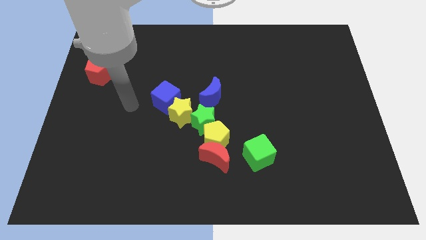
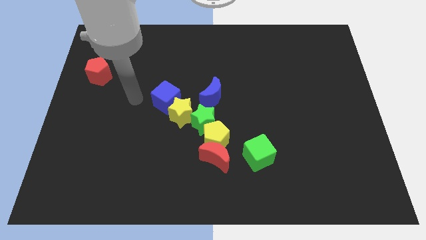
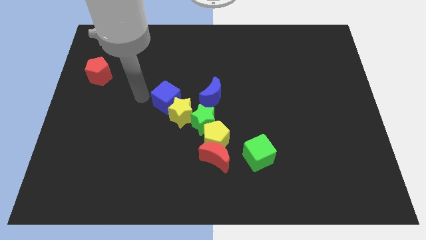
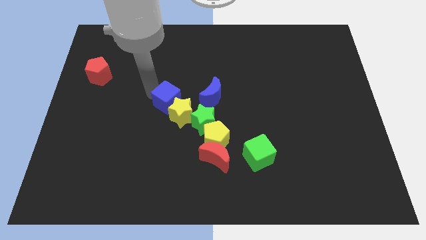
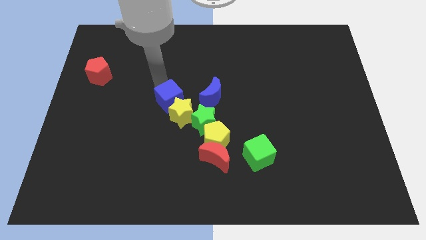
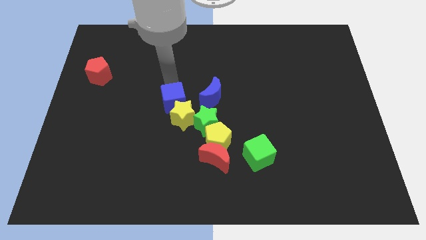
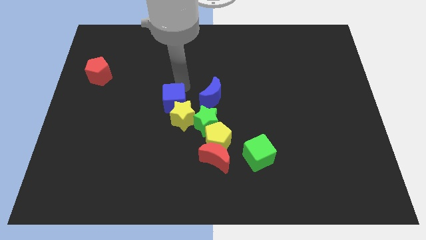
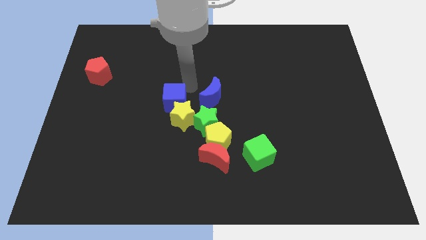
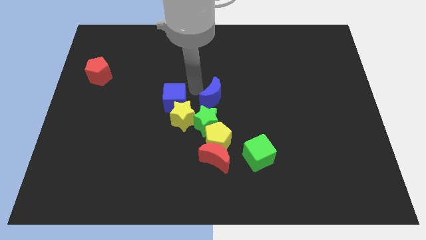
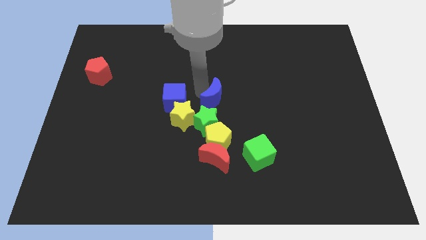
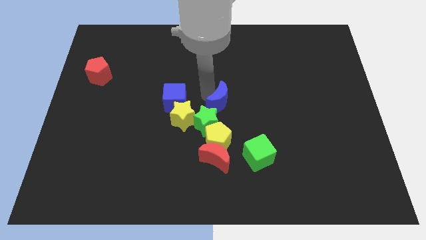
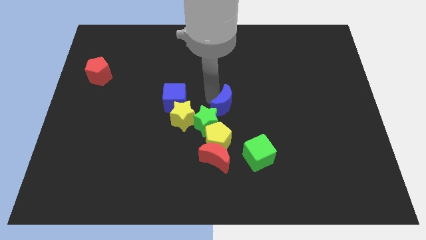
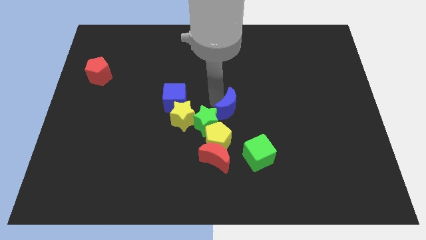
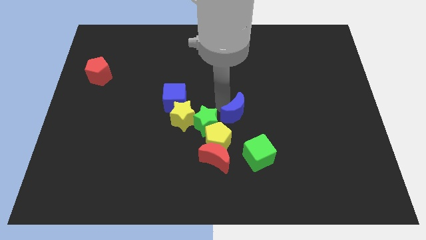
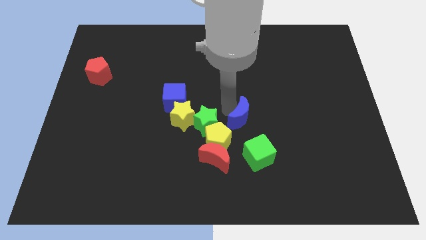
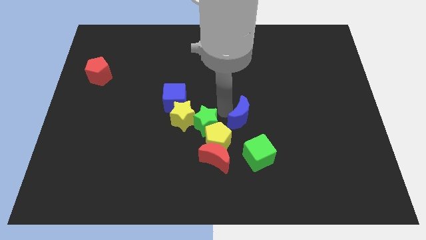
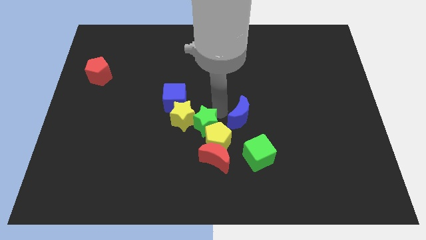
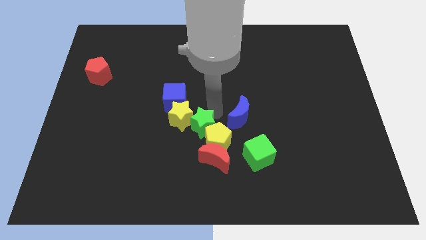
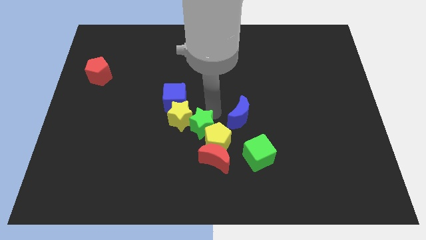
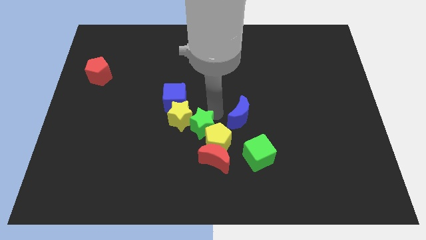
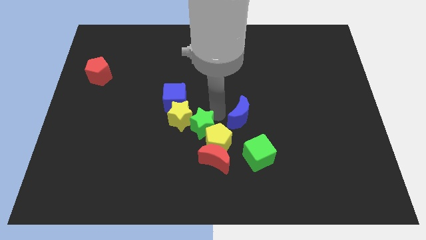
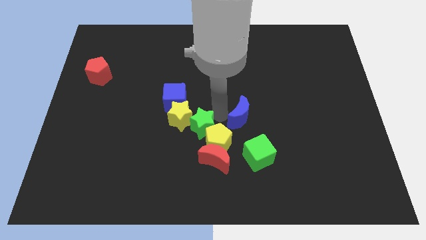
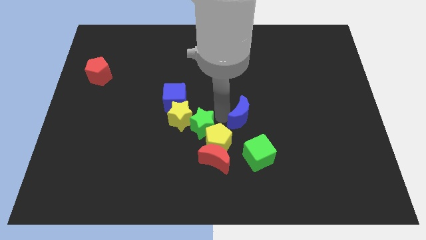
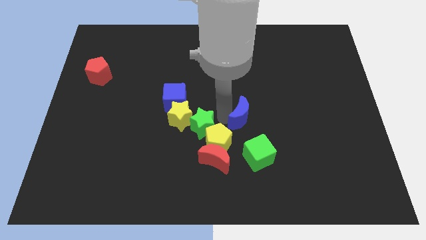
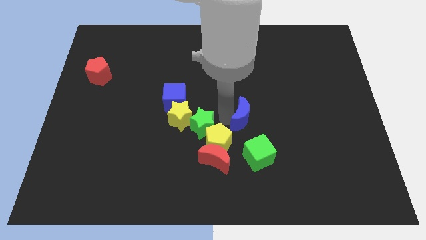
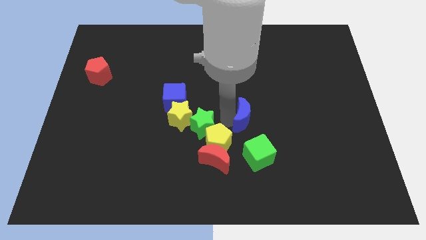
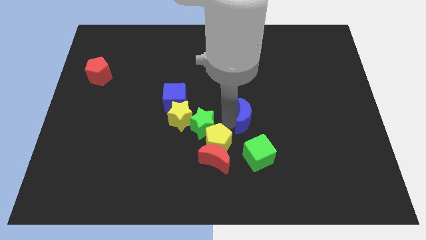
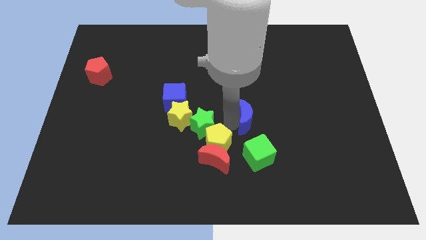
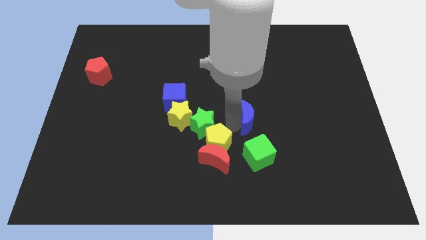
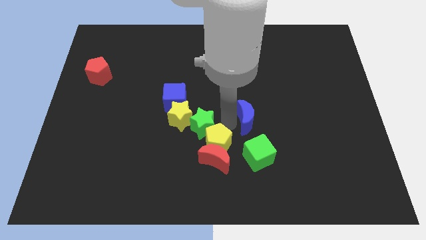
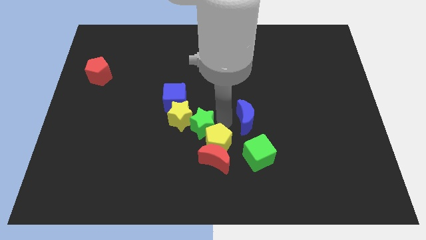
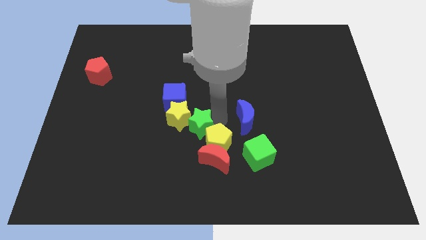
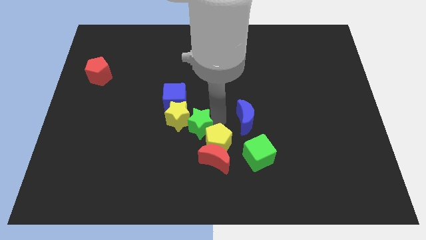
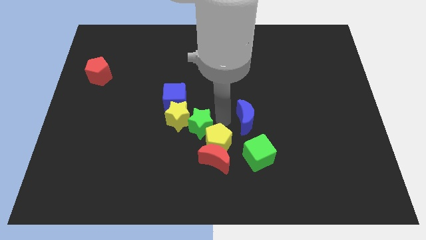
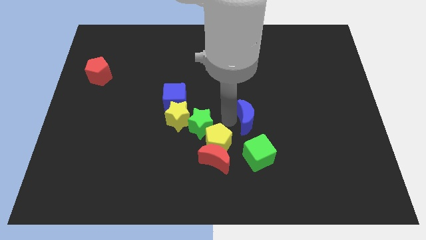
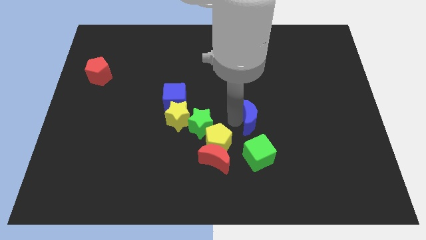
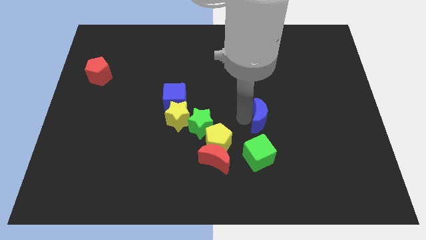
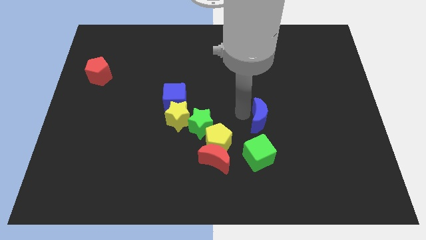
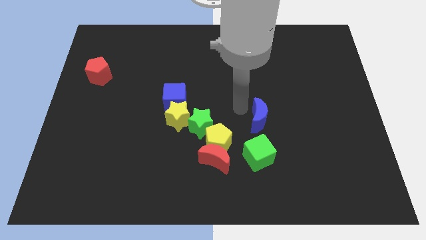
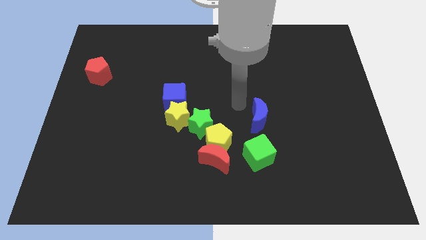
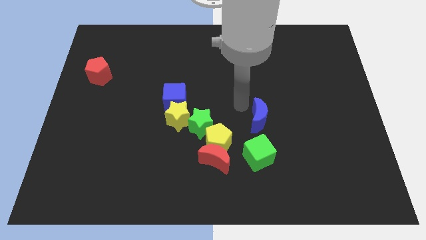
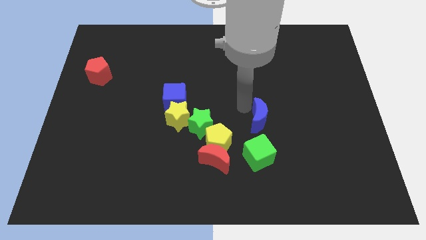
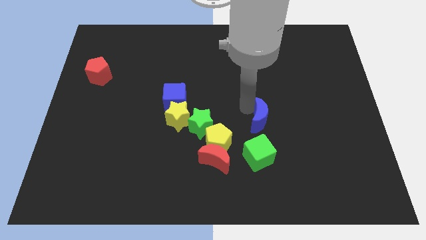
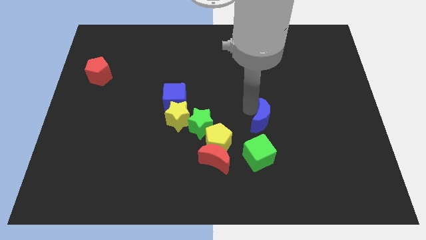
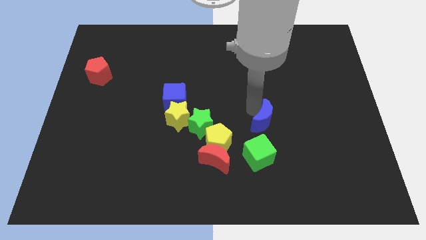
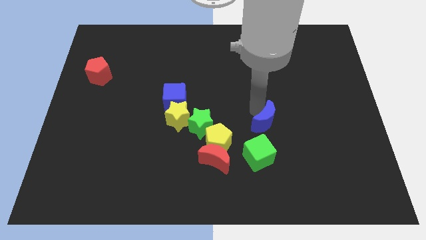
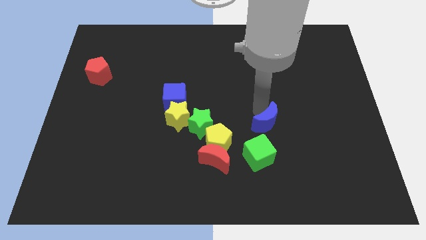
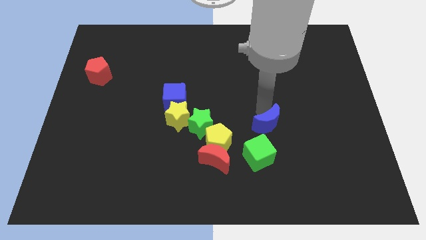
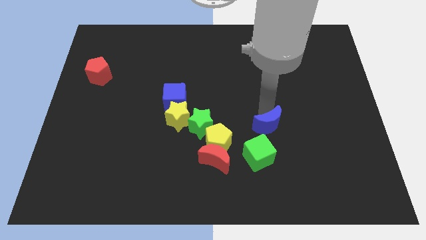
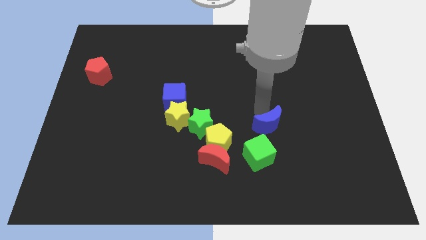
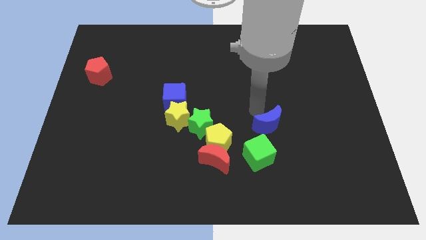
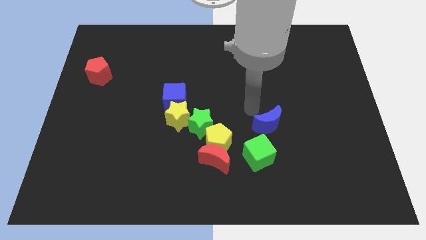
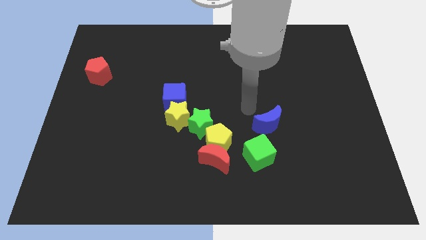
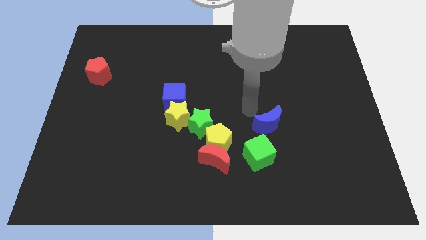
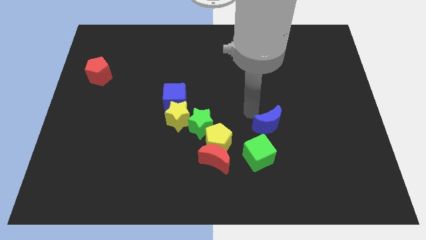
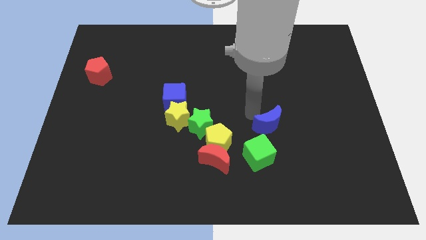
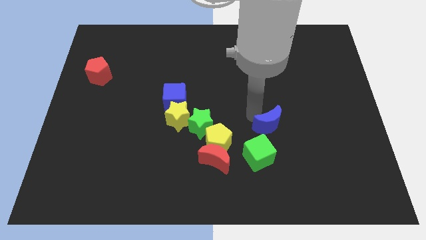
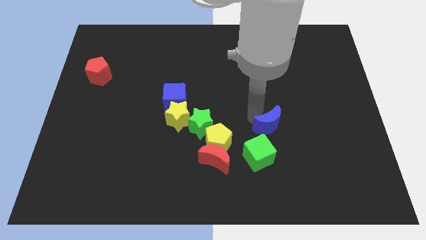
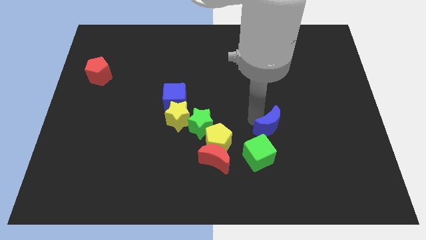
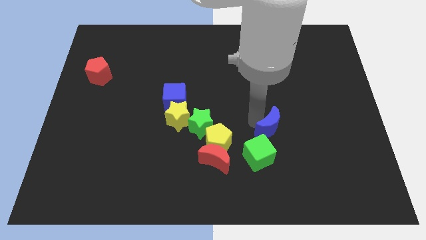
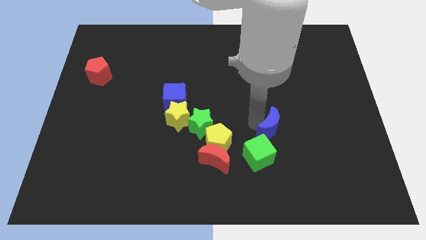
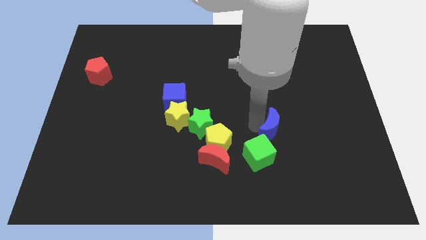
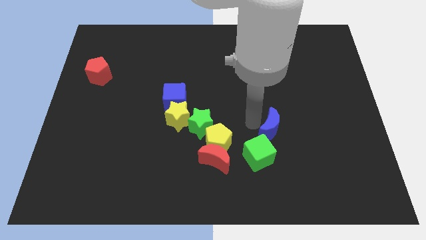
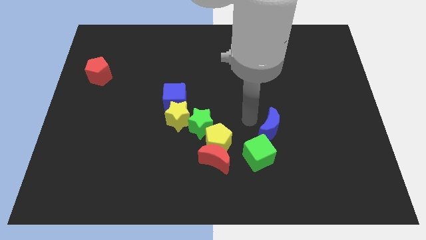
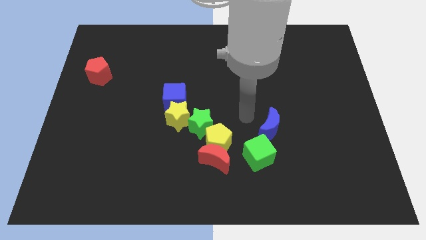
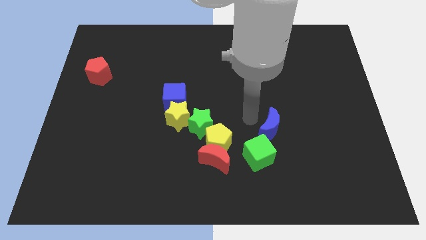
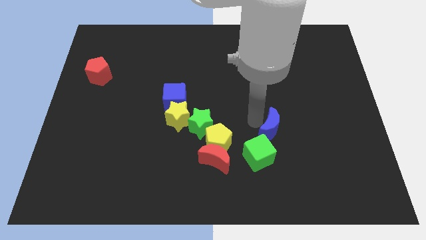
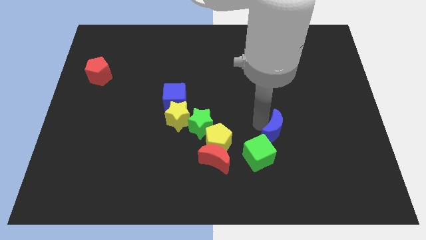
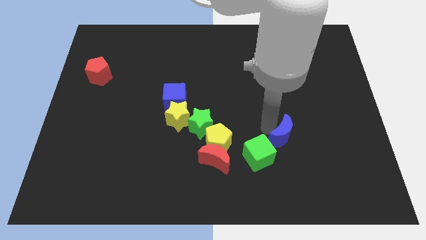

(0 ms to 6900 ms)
put the blue moon to the right of the green cube
